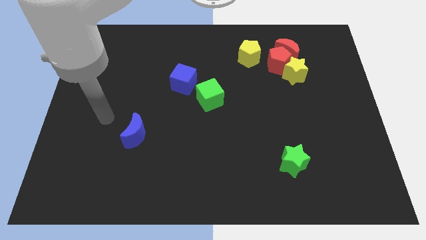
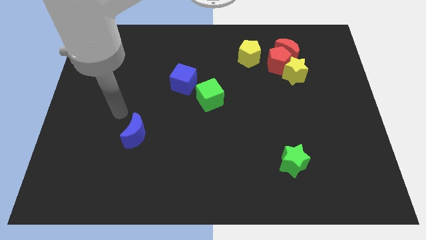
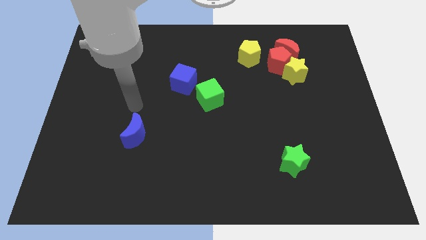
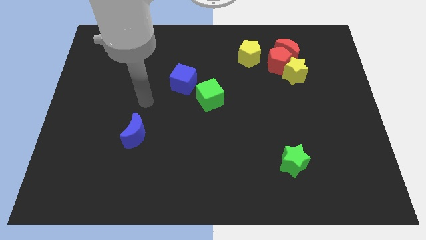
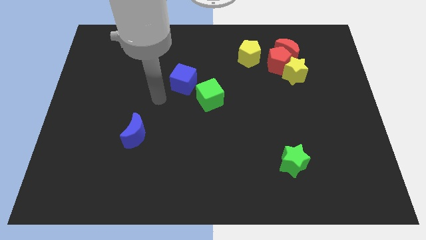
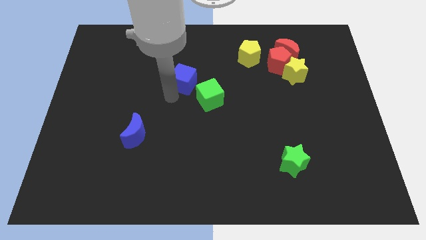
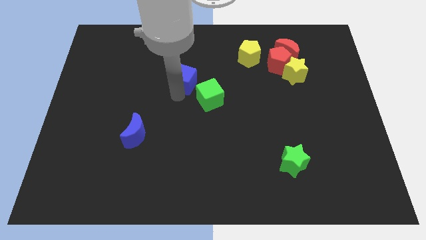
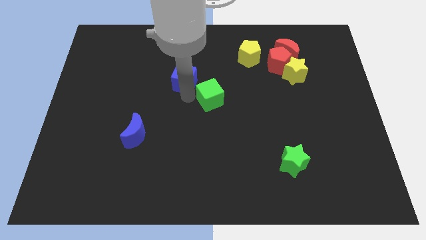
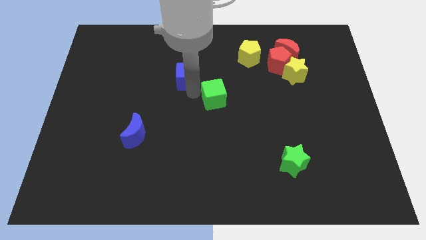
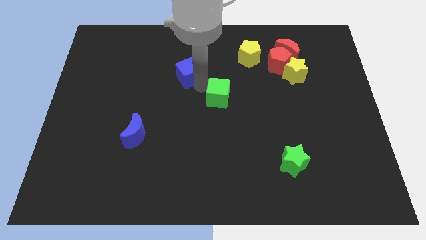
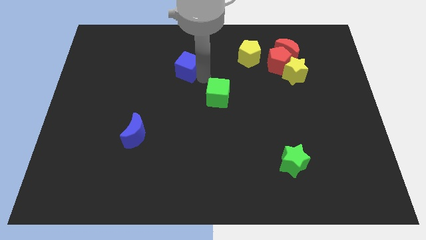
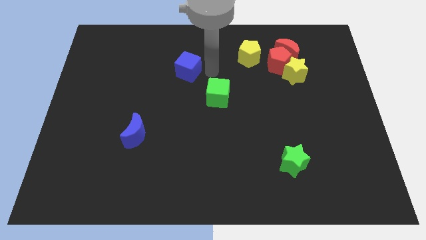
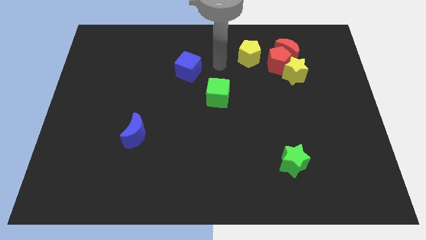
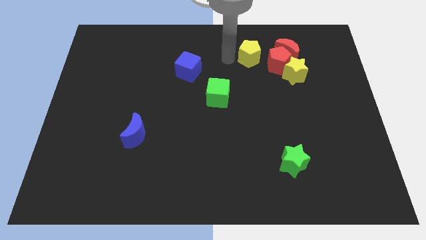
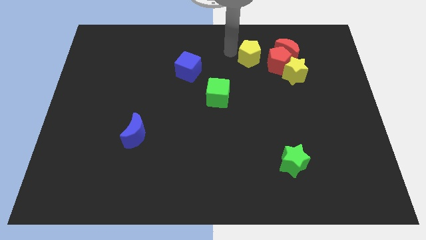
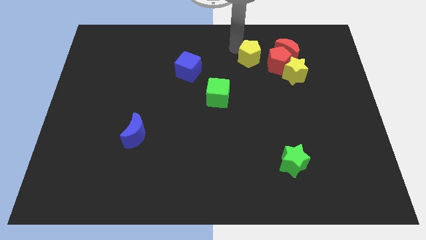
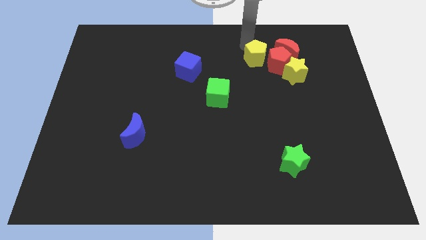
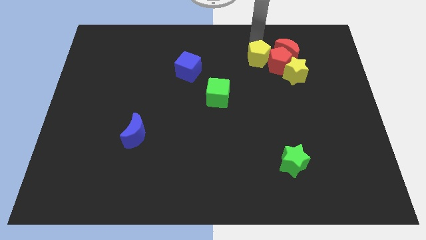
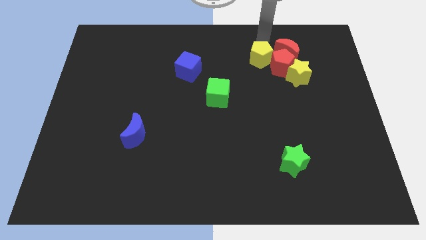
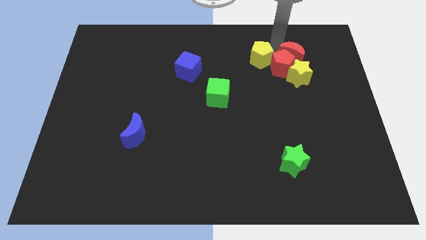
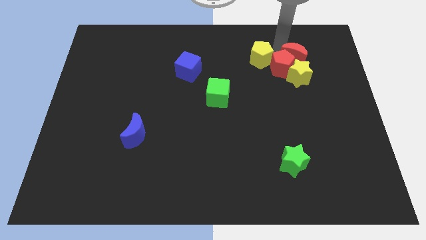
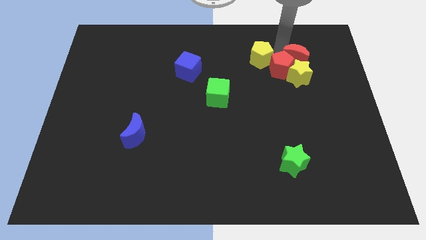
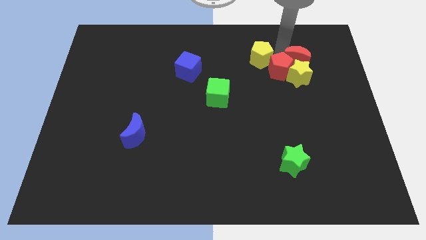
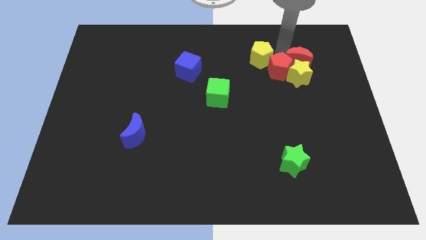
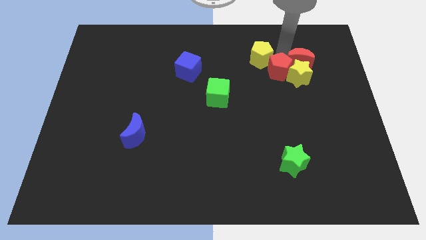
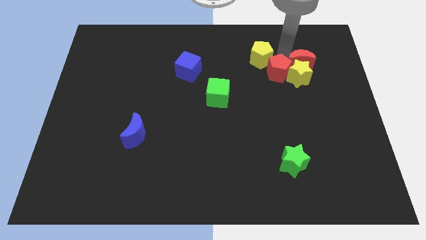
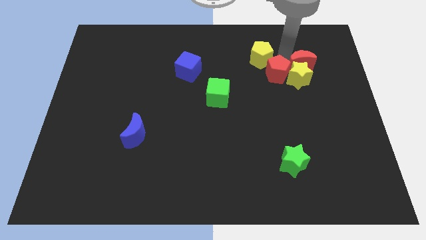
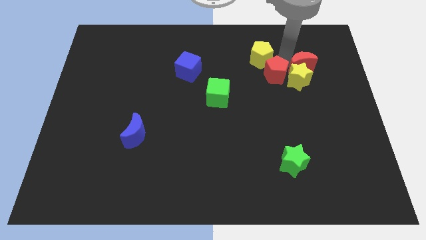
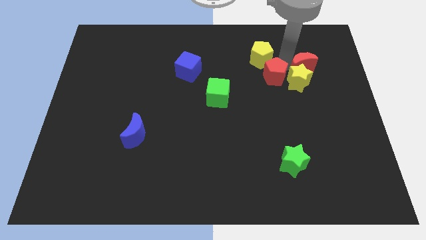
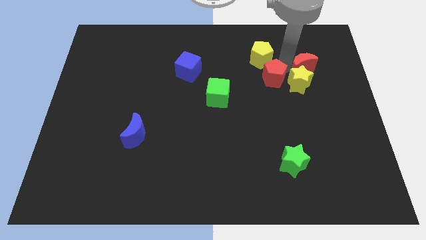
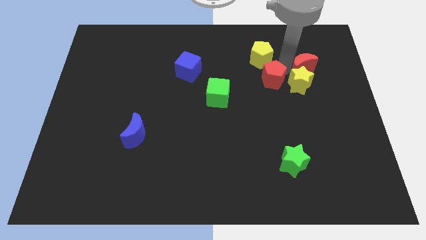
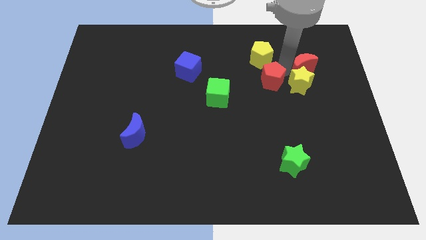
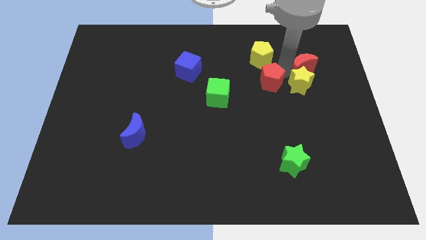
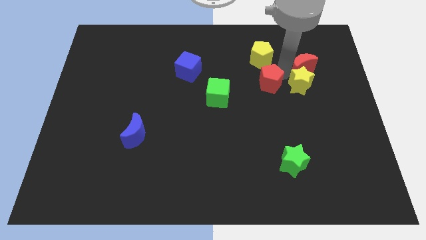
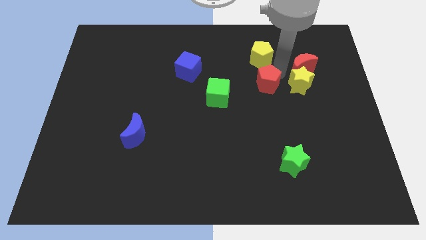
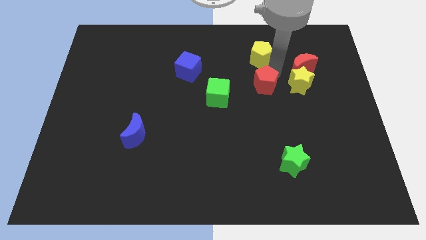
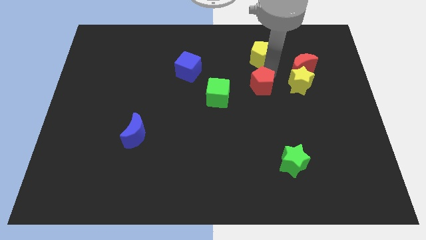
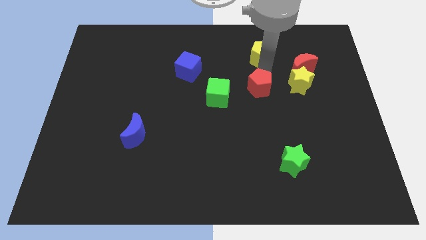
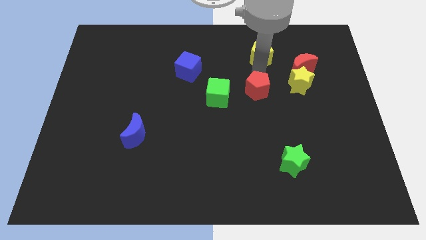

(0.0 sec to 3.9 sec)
move the red pentagon away from the red moon, yellow star, and yellow pentagon

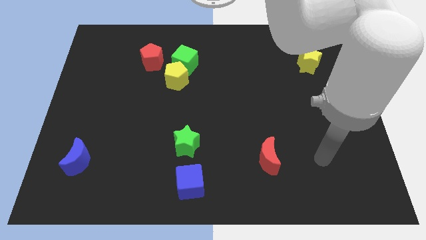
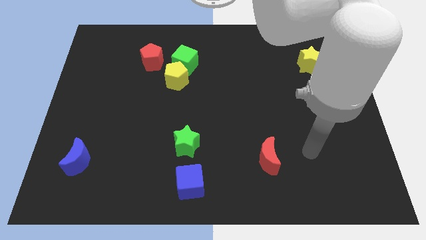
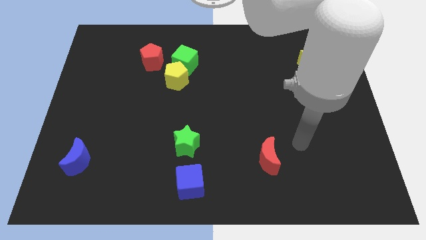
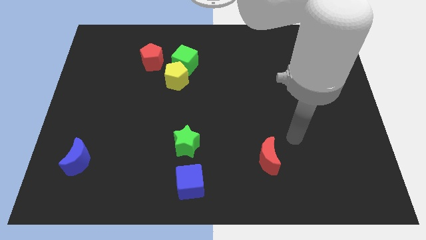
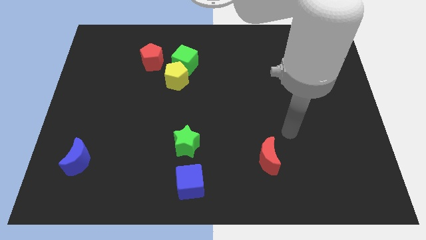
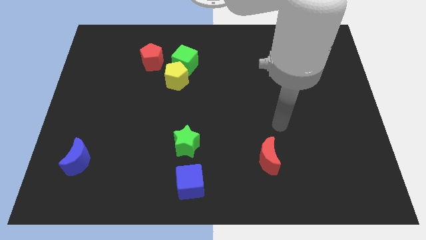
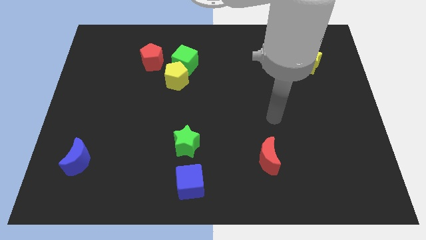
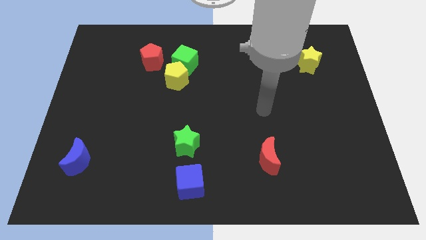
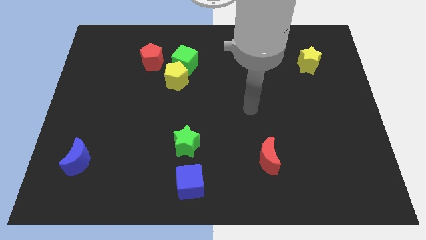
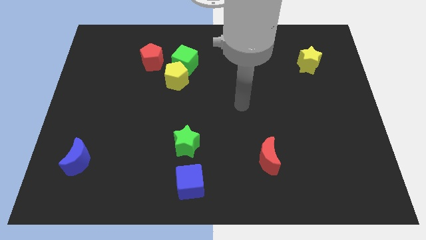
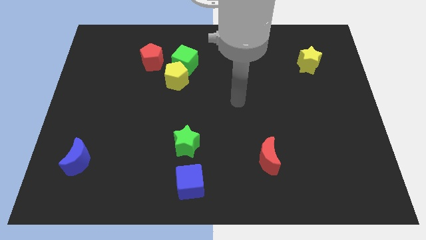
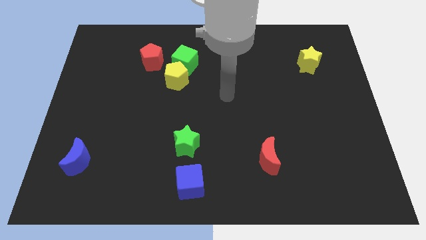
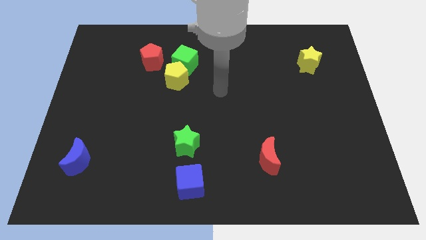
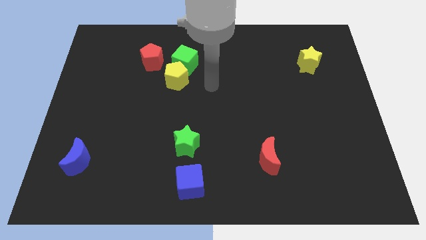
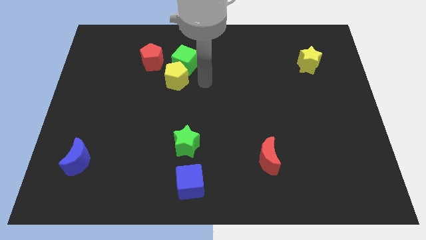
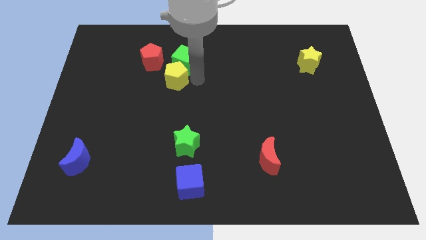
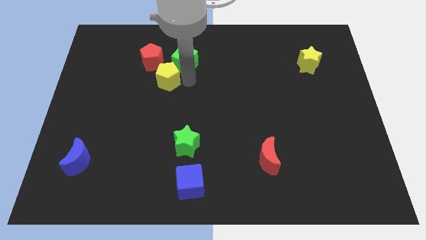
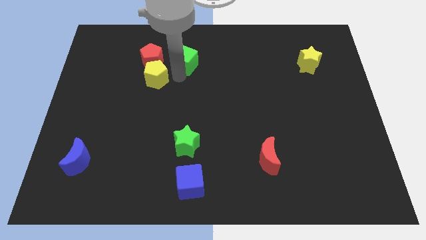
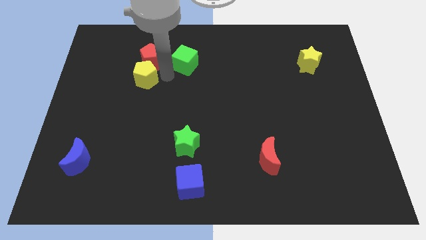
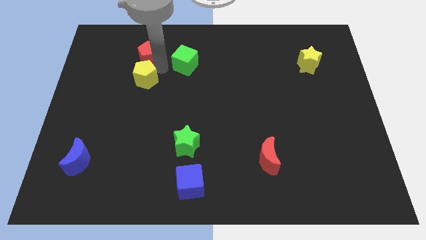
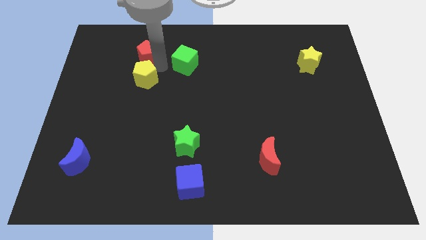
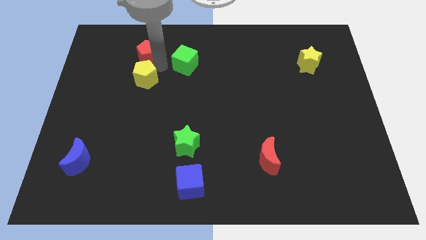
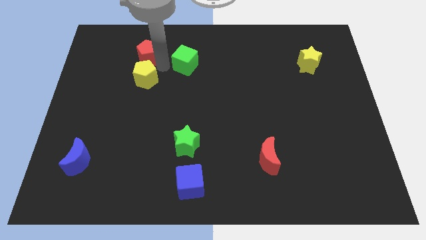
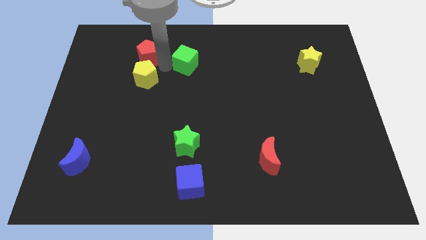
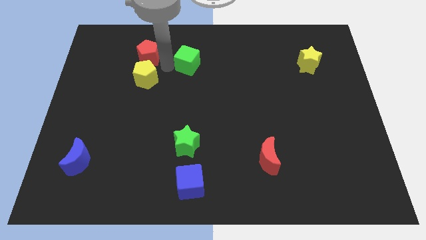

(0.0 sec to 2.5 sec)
pull the green cube apart from the yellow pentagon and red pentagon

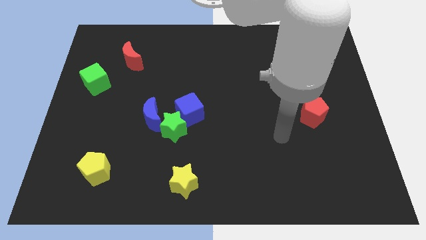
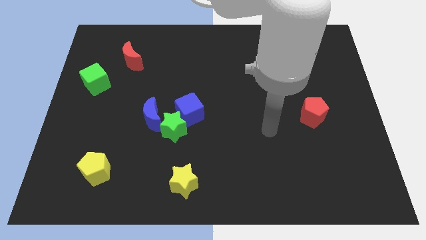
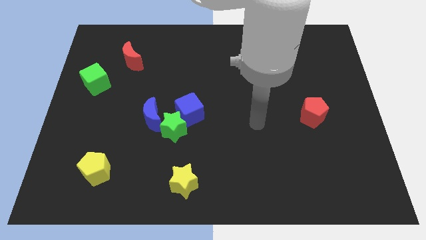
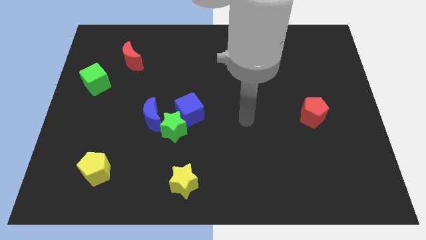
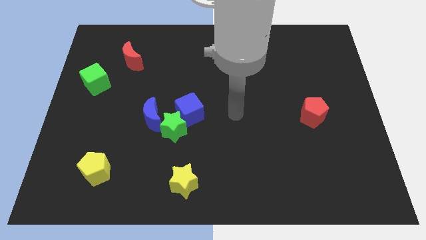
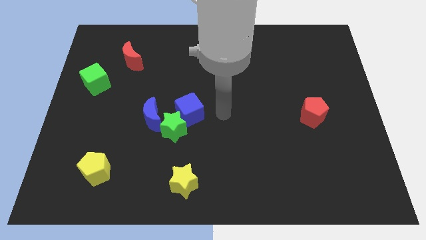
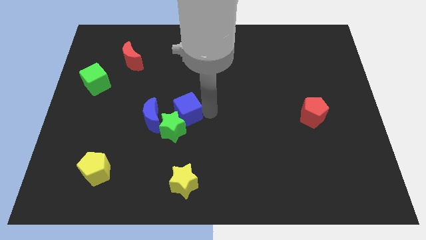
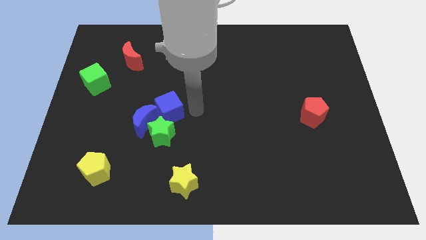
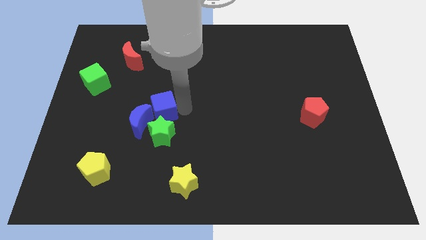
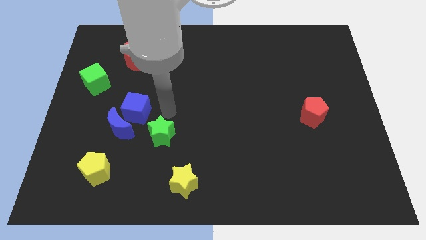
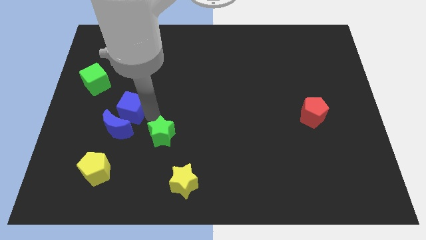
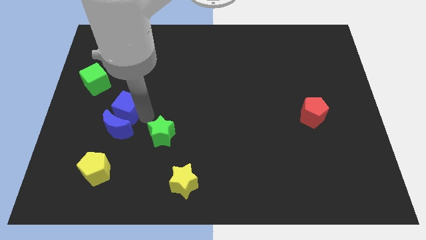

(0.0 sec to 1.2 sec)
pull the green star apart from the blue cube and blue moon

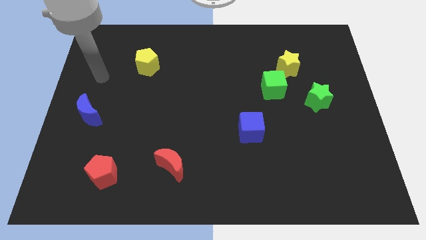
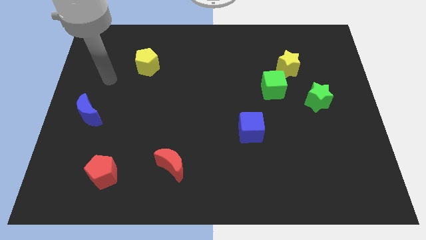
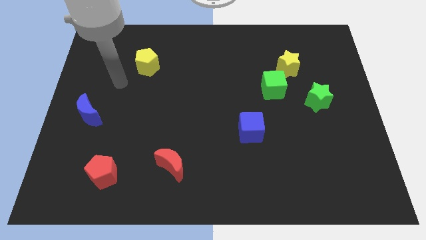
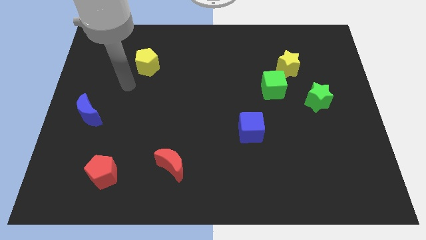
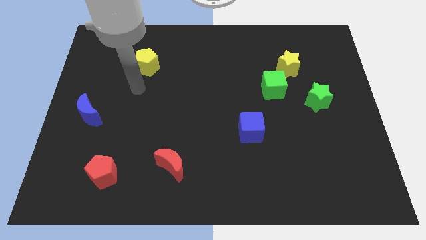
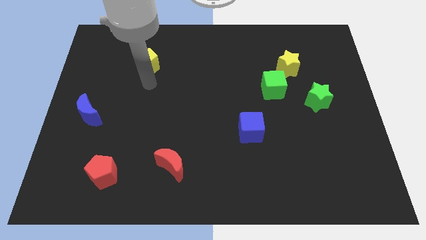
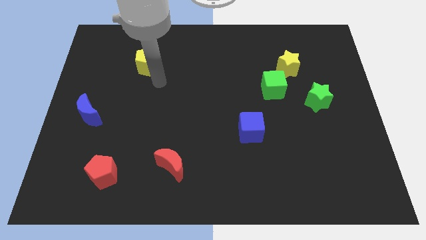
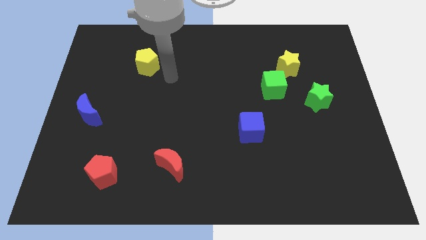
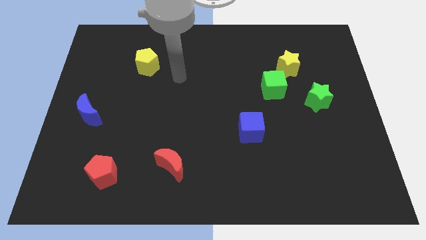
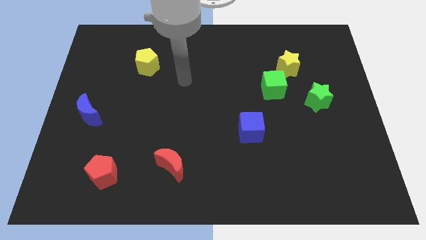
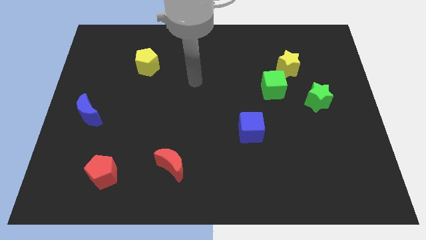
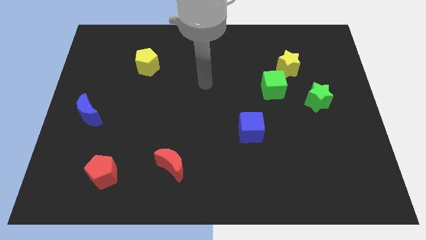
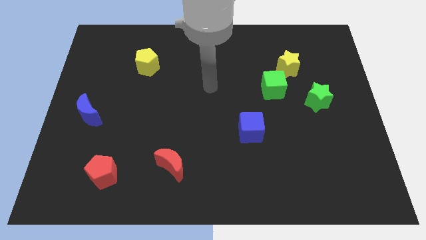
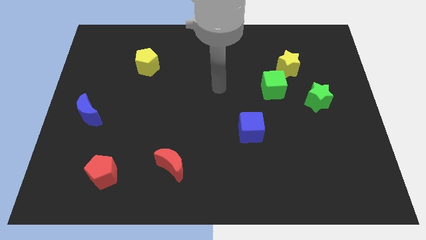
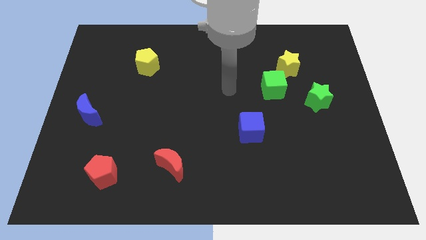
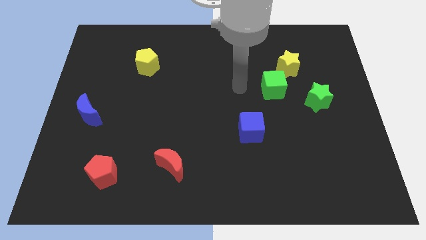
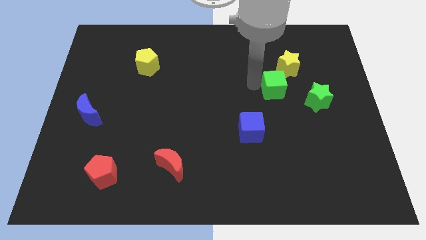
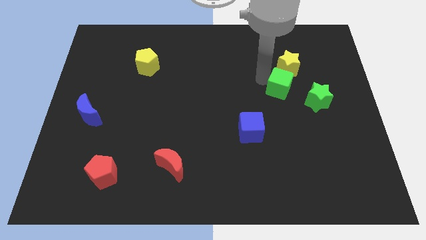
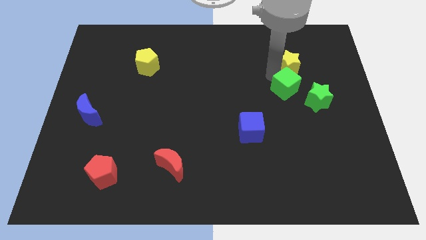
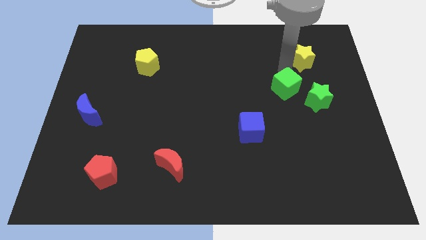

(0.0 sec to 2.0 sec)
pull the green cube apart from the yellow star
